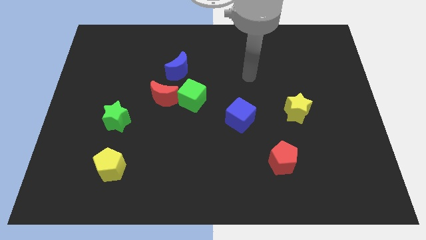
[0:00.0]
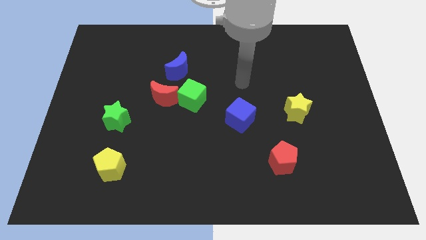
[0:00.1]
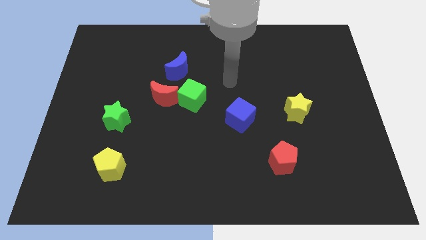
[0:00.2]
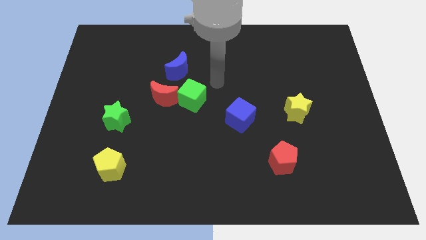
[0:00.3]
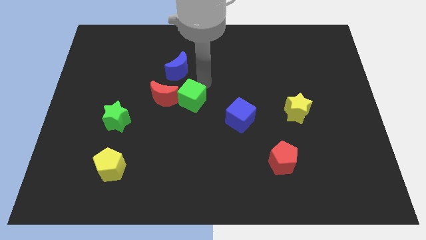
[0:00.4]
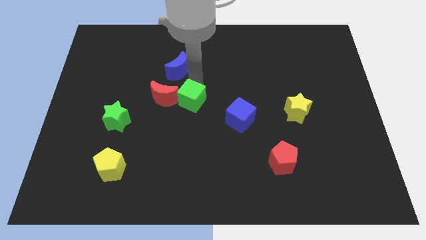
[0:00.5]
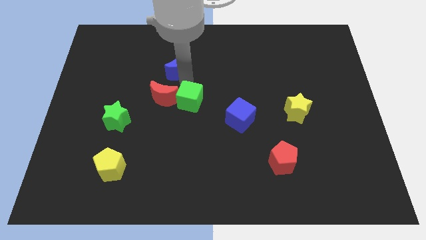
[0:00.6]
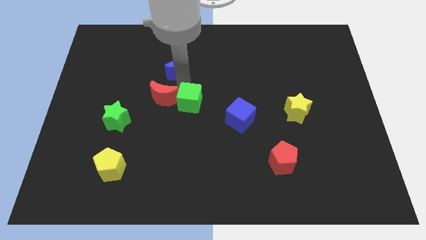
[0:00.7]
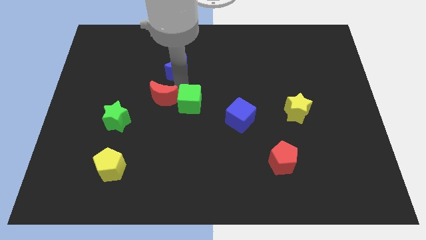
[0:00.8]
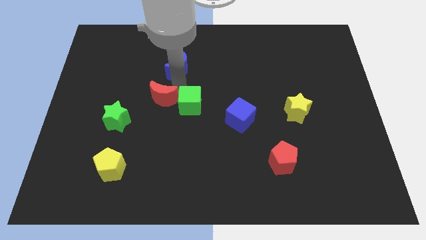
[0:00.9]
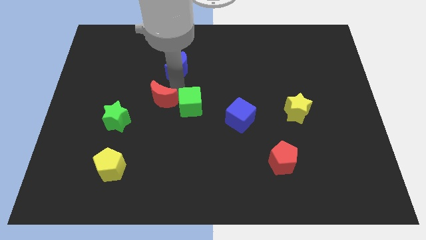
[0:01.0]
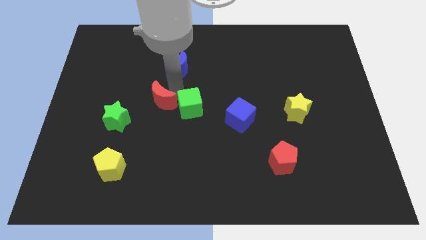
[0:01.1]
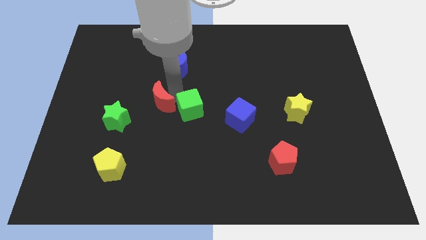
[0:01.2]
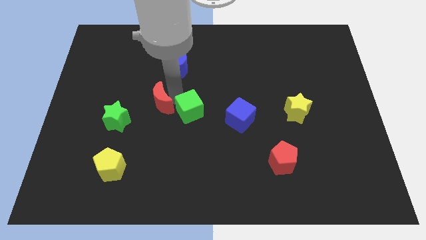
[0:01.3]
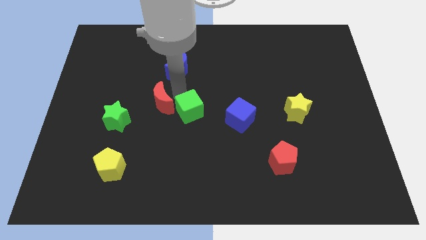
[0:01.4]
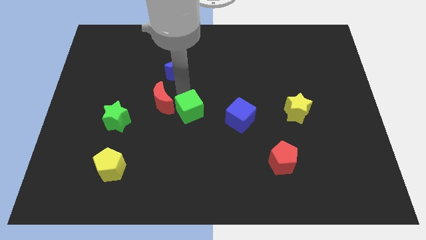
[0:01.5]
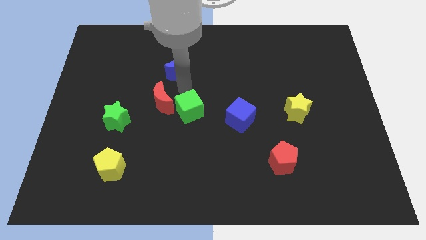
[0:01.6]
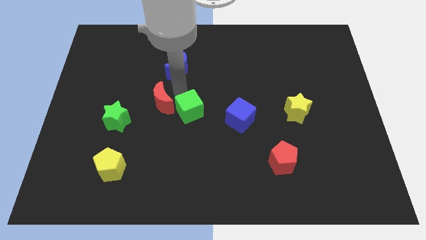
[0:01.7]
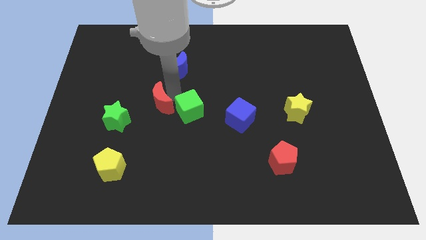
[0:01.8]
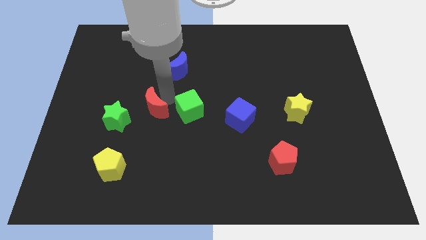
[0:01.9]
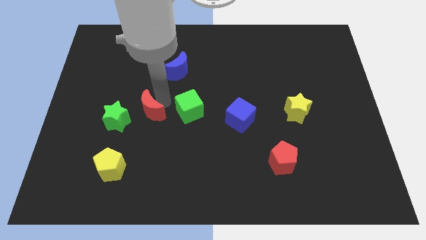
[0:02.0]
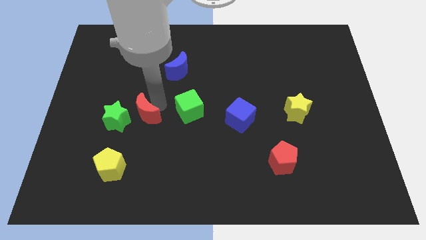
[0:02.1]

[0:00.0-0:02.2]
move the red moon away from the green cube and blue moon

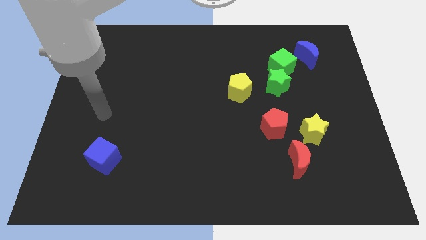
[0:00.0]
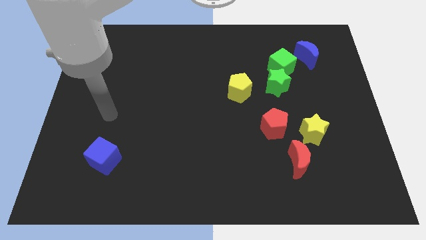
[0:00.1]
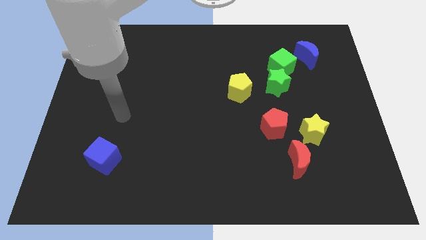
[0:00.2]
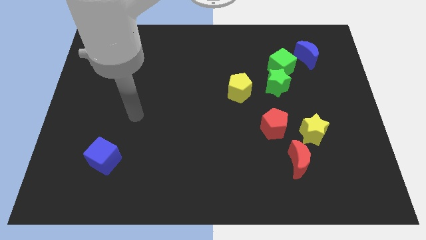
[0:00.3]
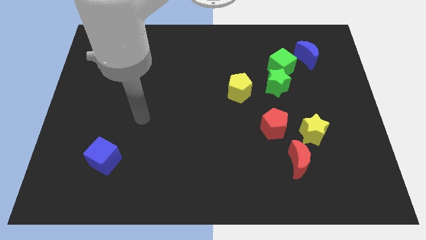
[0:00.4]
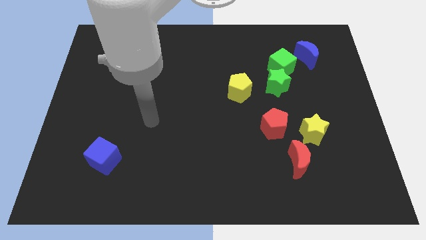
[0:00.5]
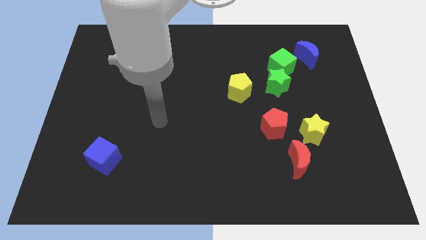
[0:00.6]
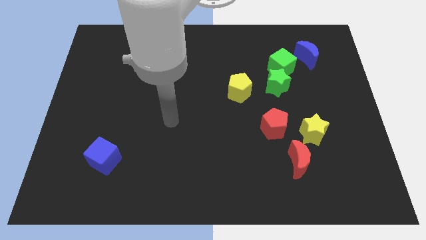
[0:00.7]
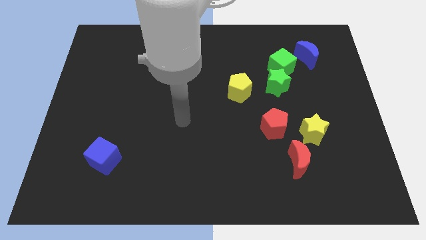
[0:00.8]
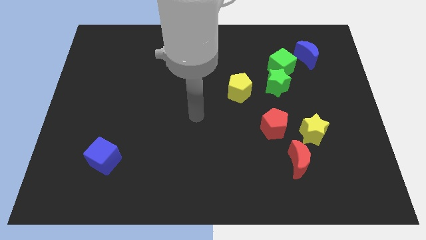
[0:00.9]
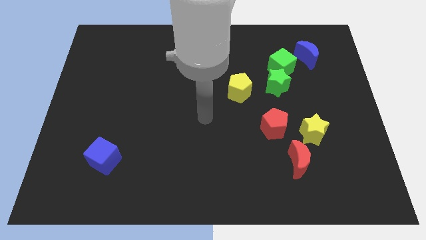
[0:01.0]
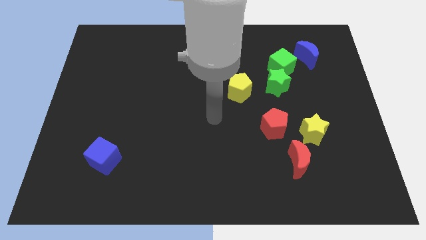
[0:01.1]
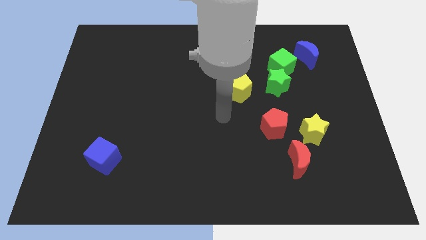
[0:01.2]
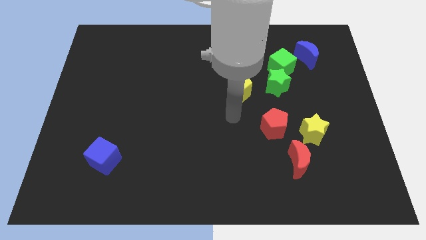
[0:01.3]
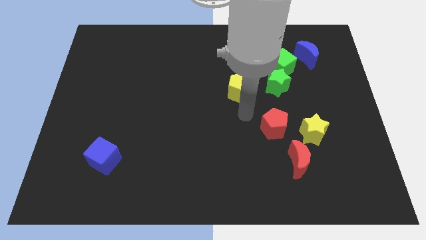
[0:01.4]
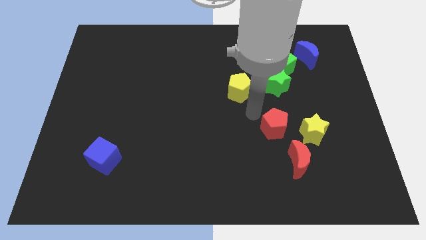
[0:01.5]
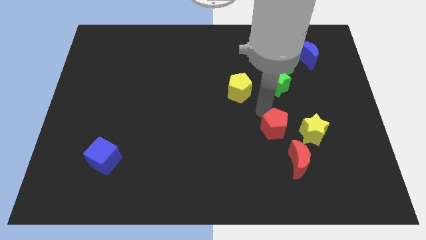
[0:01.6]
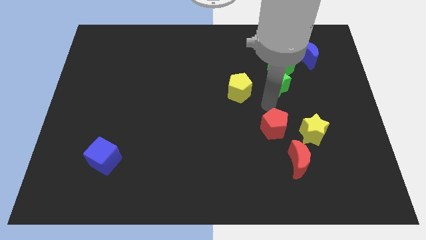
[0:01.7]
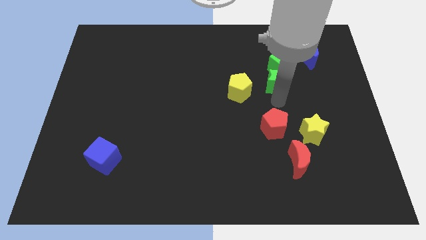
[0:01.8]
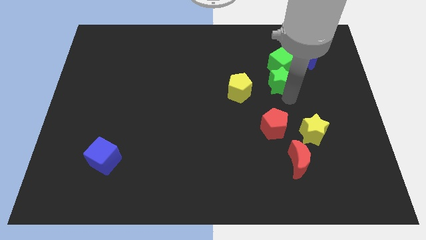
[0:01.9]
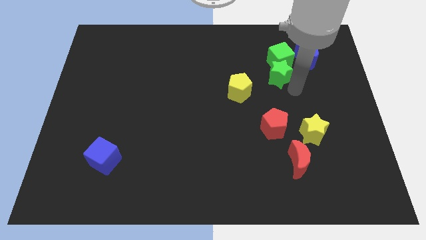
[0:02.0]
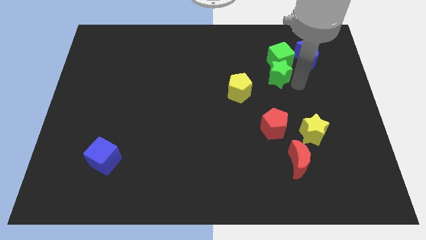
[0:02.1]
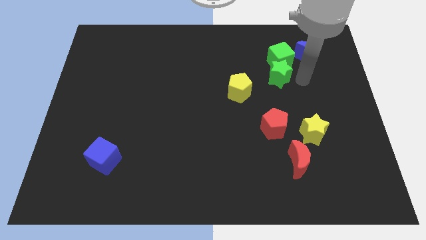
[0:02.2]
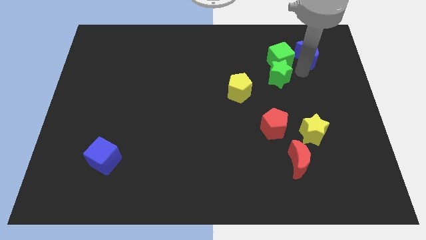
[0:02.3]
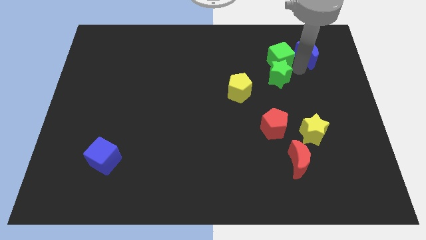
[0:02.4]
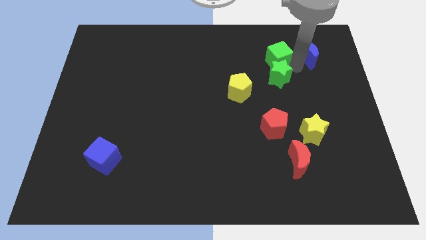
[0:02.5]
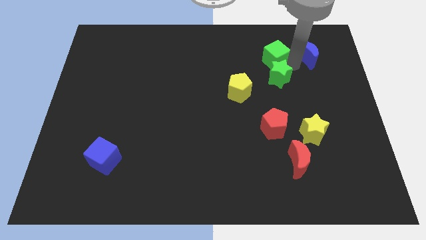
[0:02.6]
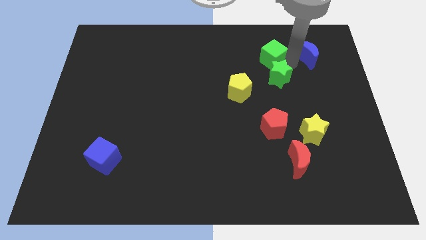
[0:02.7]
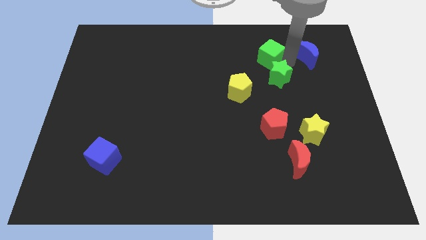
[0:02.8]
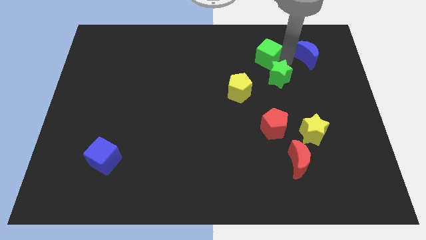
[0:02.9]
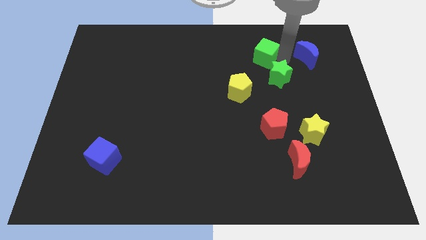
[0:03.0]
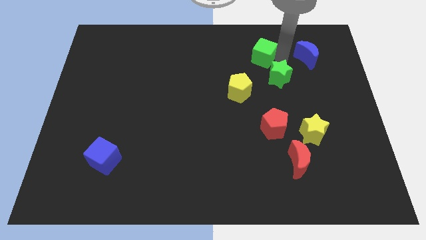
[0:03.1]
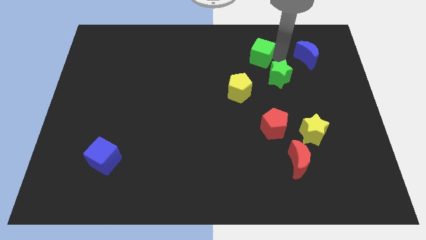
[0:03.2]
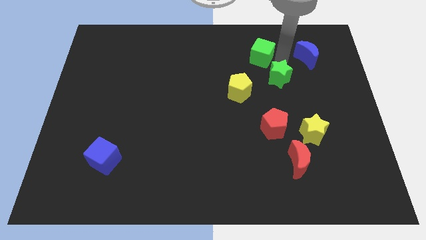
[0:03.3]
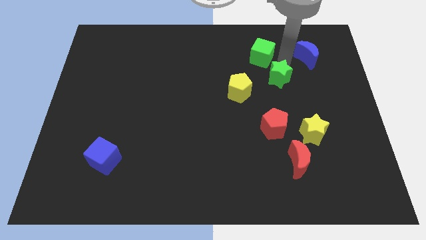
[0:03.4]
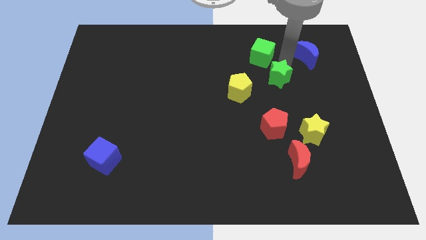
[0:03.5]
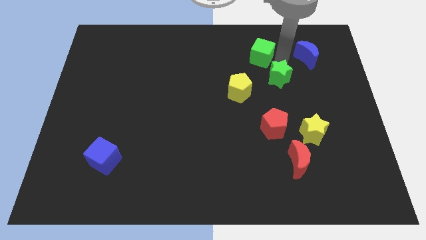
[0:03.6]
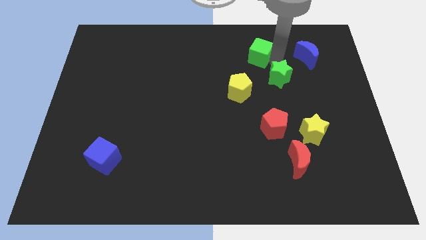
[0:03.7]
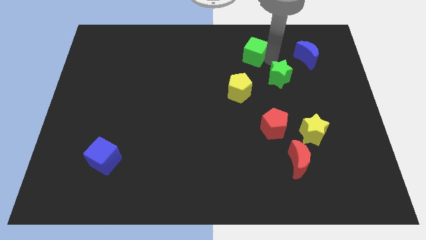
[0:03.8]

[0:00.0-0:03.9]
pull the green cube apart from the green star and blue moon

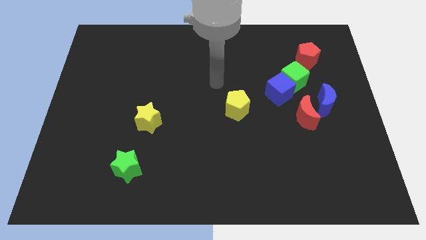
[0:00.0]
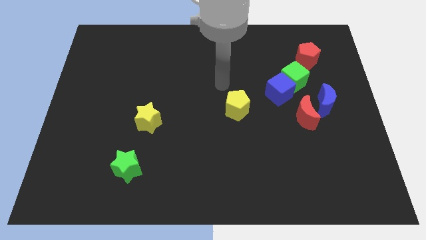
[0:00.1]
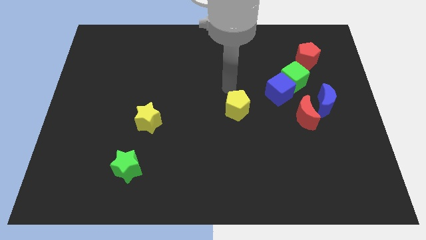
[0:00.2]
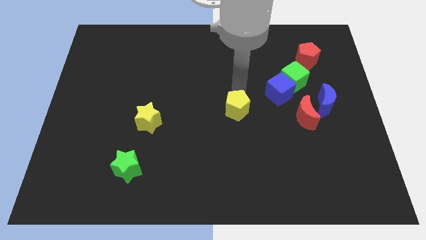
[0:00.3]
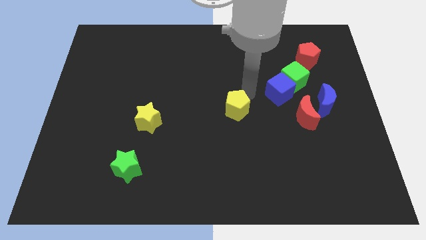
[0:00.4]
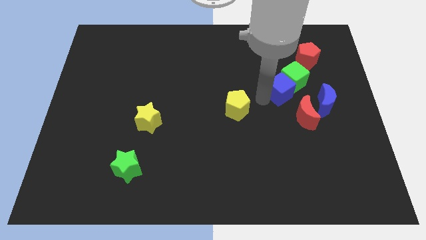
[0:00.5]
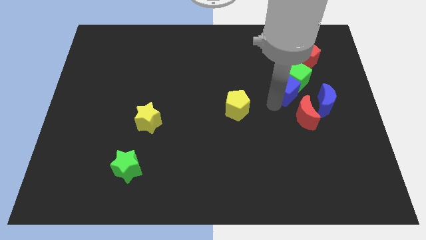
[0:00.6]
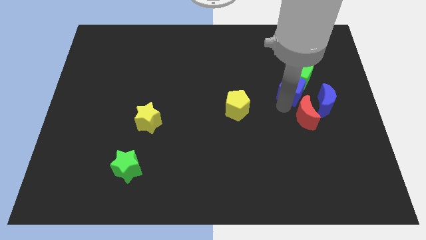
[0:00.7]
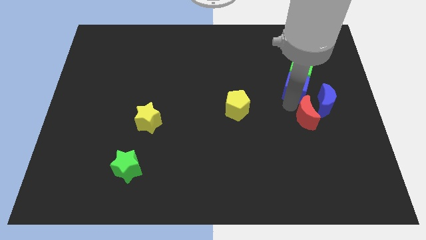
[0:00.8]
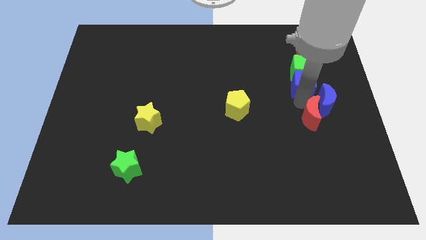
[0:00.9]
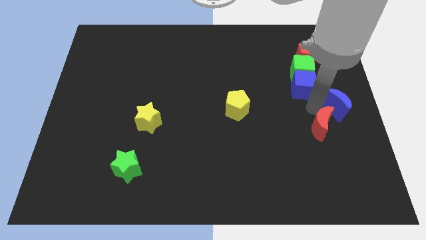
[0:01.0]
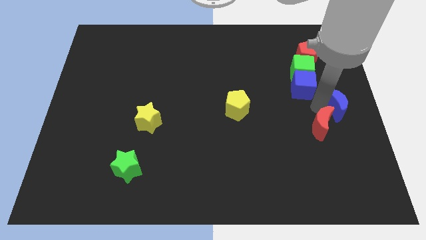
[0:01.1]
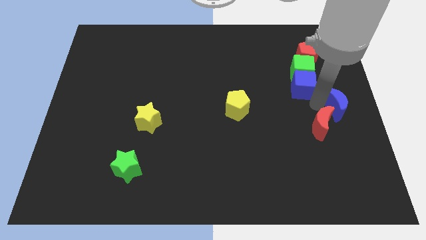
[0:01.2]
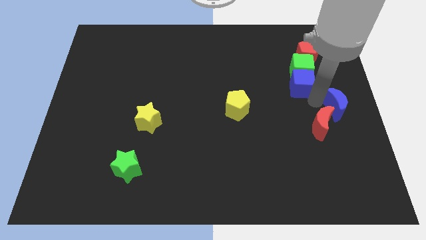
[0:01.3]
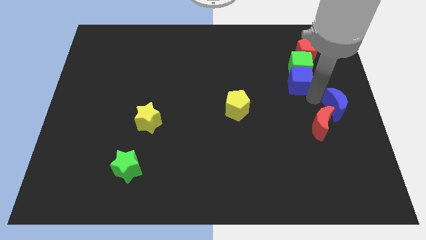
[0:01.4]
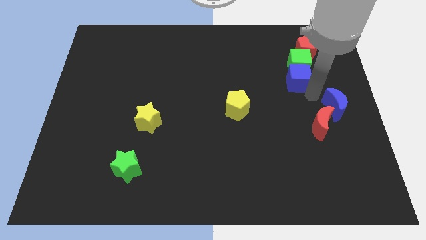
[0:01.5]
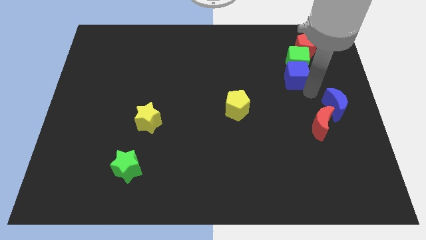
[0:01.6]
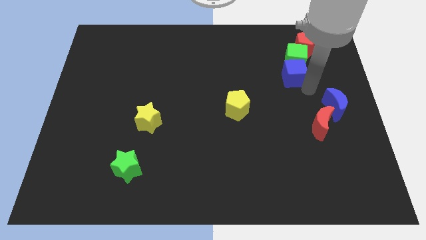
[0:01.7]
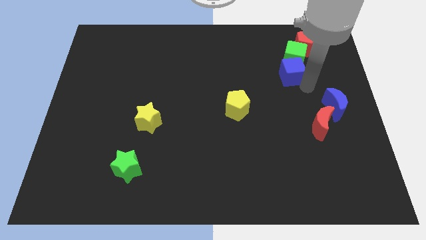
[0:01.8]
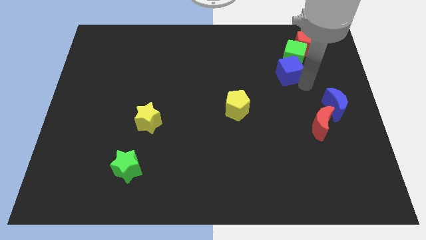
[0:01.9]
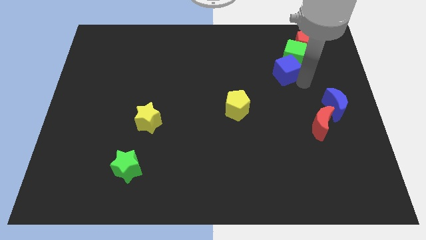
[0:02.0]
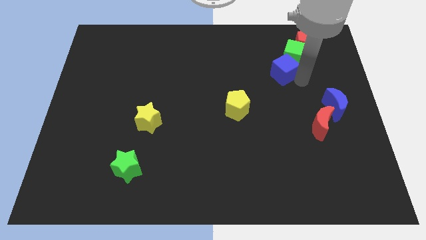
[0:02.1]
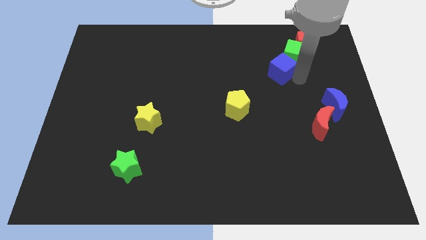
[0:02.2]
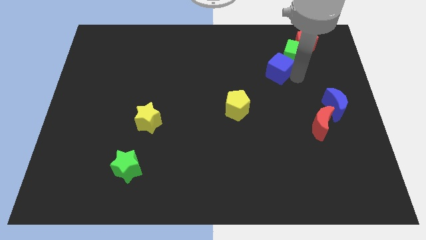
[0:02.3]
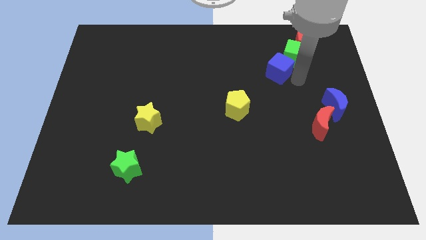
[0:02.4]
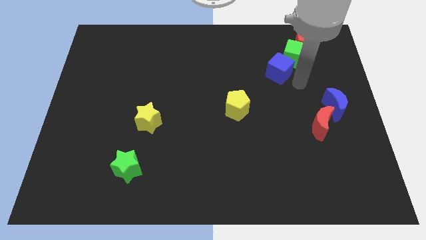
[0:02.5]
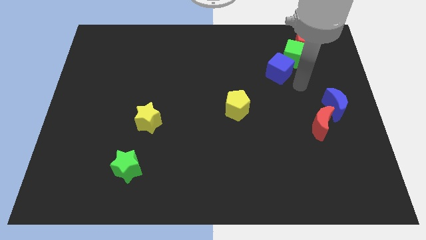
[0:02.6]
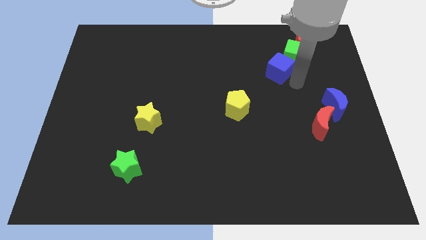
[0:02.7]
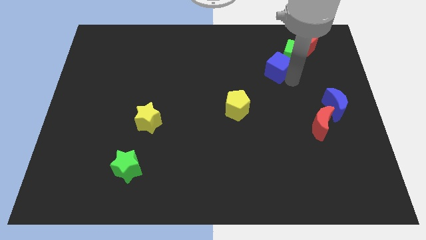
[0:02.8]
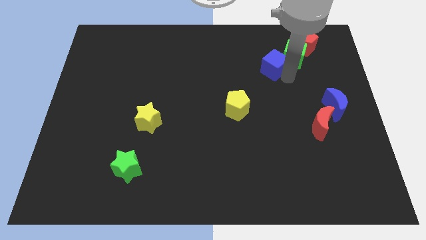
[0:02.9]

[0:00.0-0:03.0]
separate the blue cube from the green cube and red moon

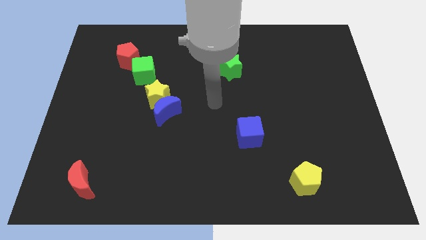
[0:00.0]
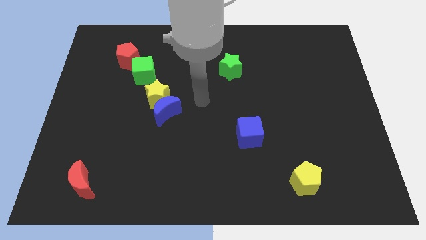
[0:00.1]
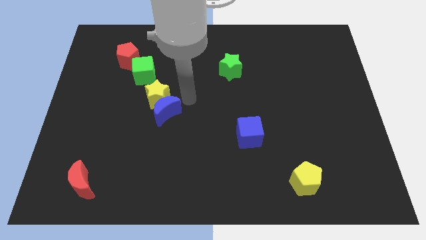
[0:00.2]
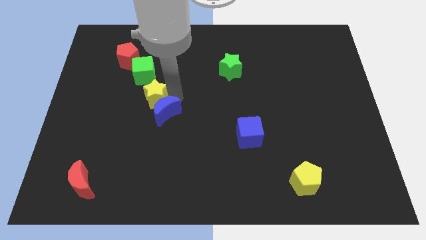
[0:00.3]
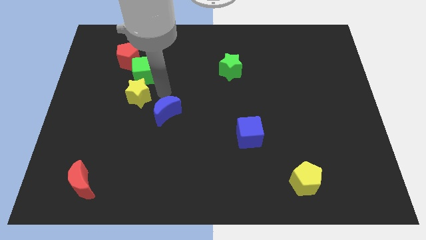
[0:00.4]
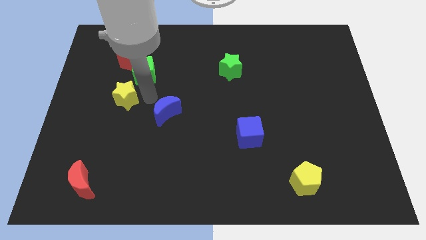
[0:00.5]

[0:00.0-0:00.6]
separate the blue moon from the yellow star
